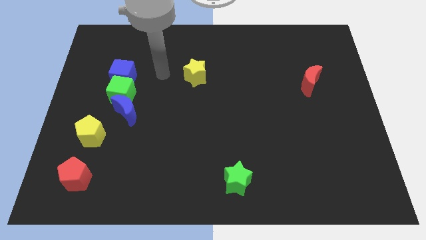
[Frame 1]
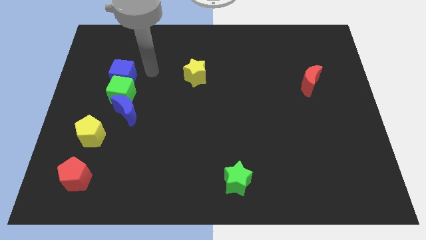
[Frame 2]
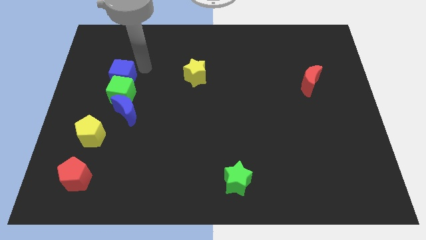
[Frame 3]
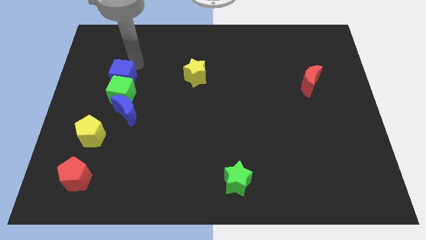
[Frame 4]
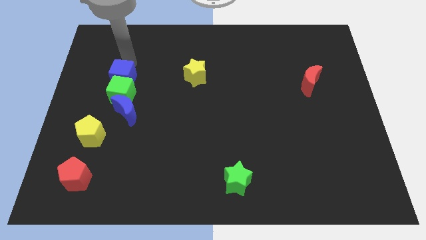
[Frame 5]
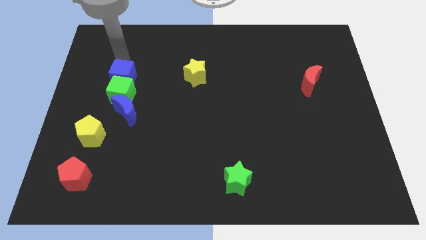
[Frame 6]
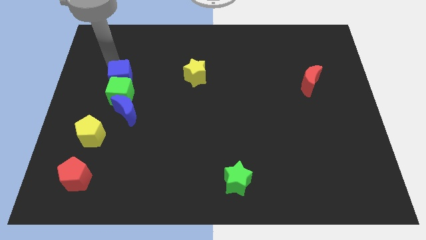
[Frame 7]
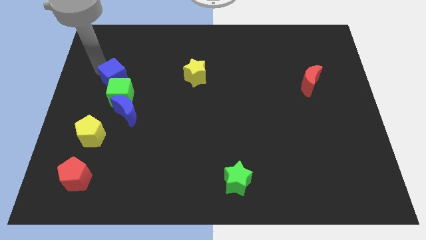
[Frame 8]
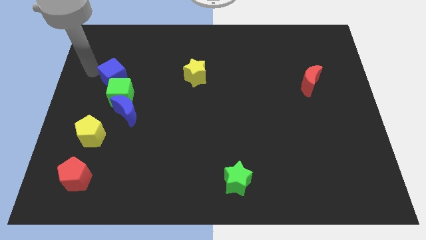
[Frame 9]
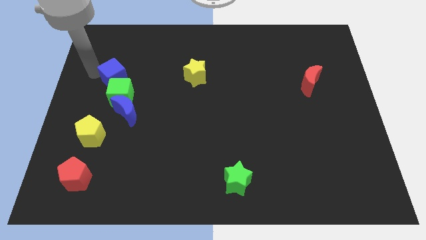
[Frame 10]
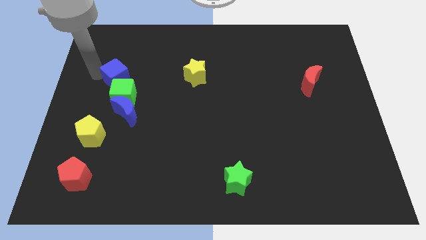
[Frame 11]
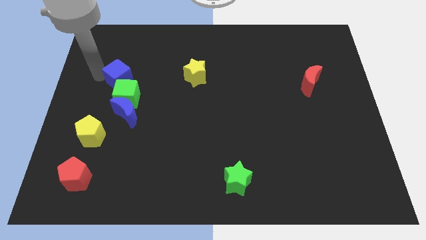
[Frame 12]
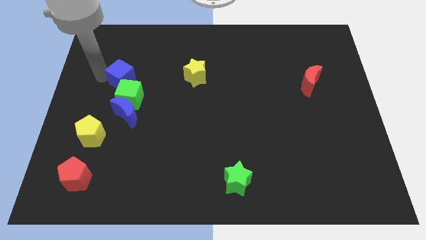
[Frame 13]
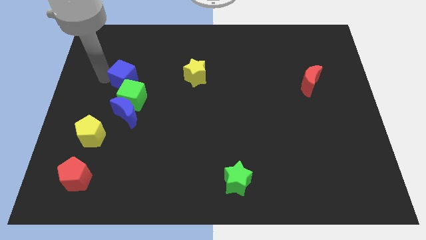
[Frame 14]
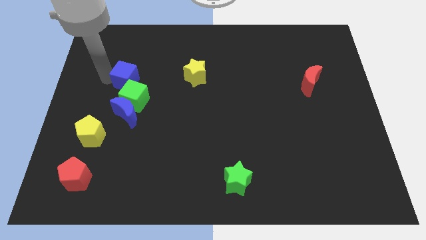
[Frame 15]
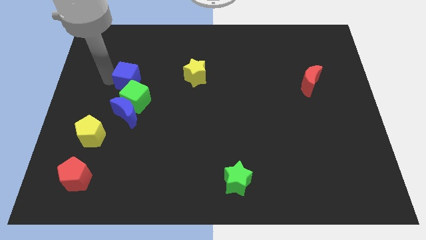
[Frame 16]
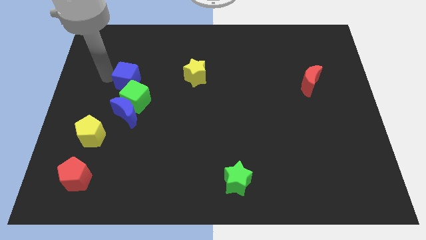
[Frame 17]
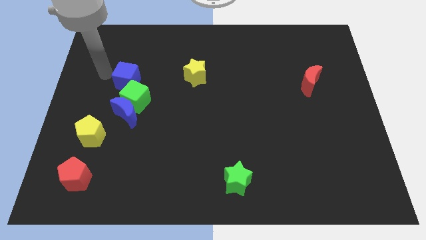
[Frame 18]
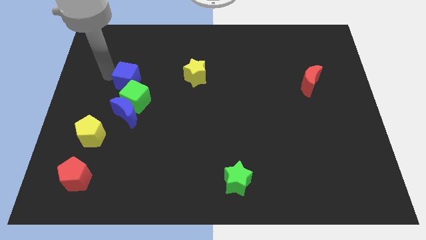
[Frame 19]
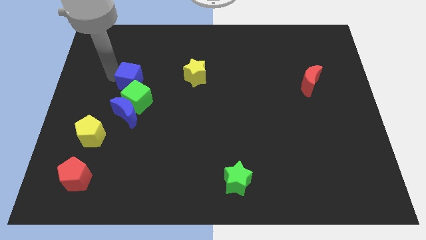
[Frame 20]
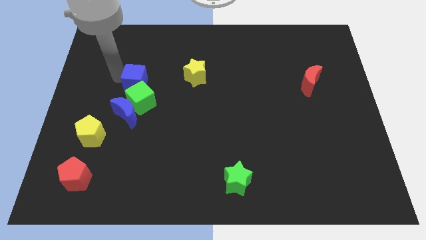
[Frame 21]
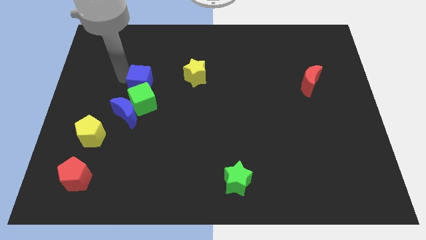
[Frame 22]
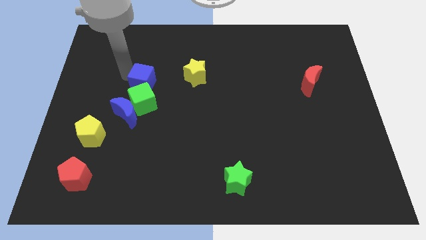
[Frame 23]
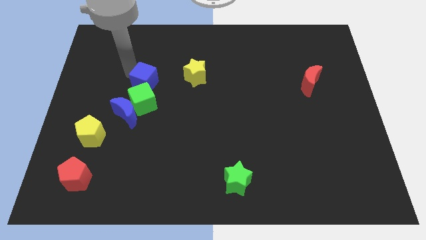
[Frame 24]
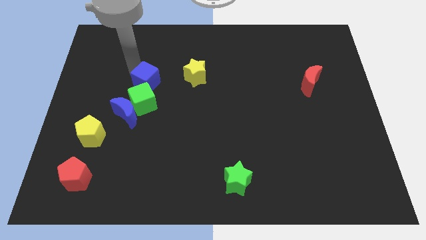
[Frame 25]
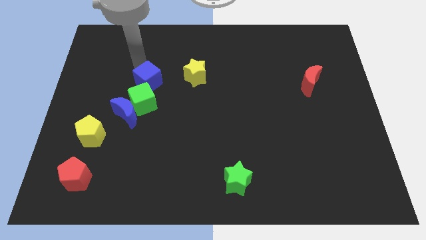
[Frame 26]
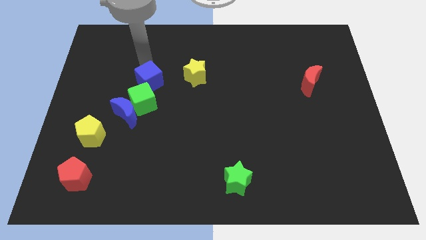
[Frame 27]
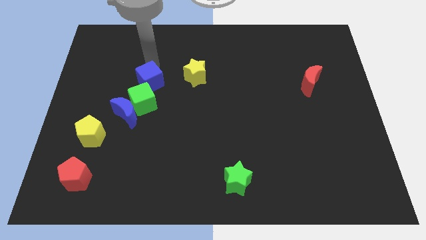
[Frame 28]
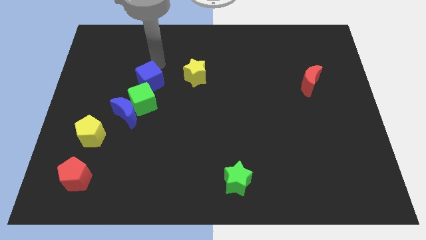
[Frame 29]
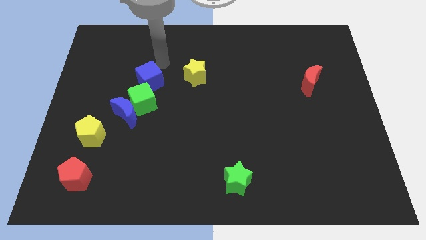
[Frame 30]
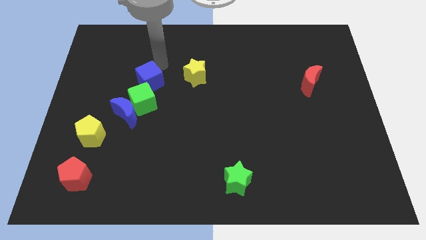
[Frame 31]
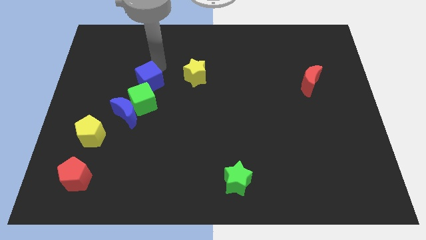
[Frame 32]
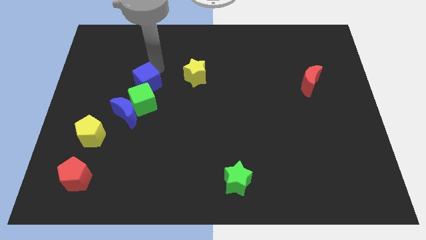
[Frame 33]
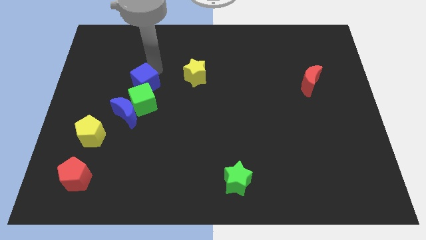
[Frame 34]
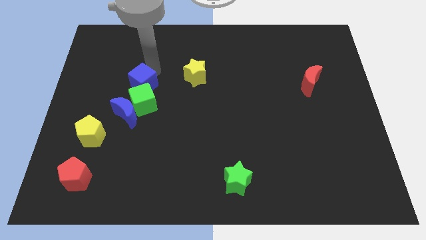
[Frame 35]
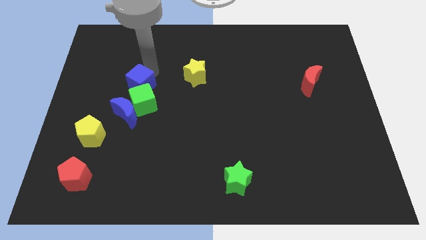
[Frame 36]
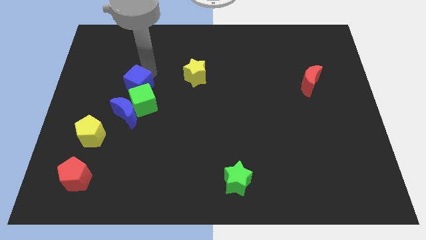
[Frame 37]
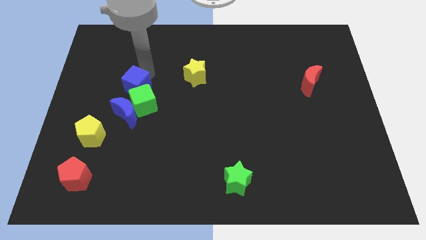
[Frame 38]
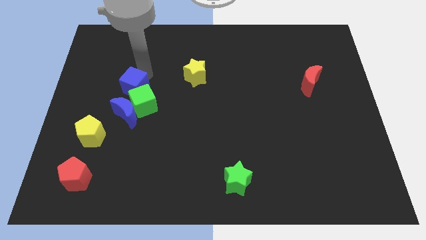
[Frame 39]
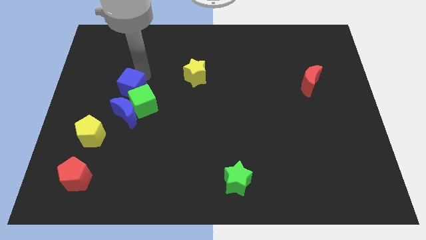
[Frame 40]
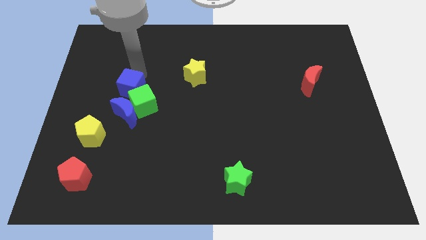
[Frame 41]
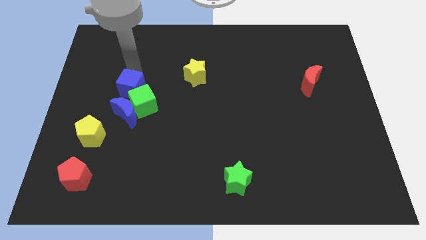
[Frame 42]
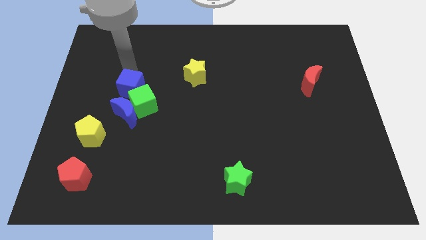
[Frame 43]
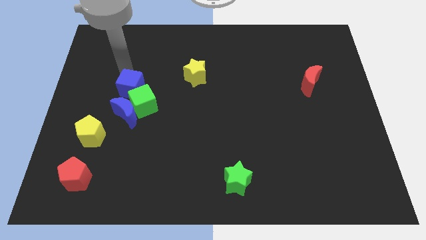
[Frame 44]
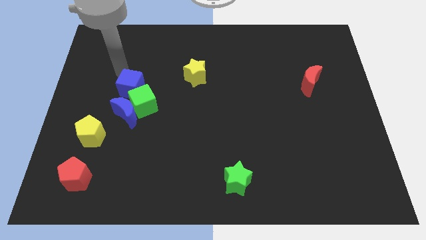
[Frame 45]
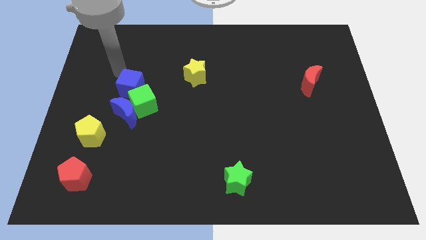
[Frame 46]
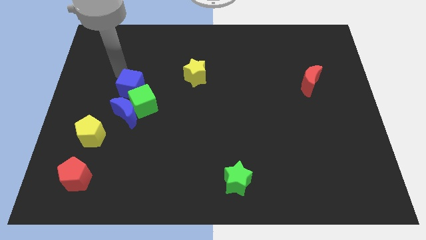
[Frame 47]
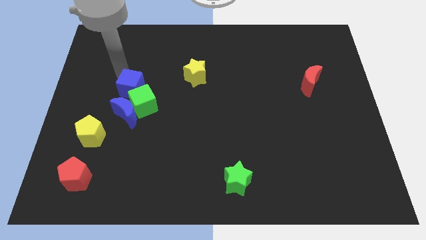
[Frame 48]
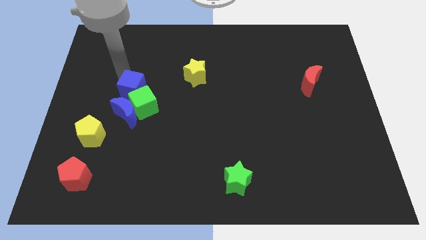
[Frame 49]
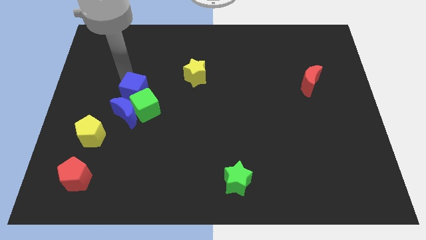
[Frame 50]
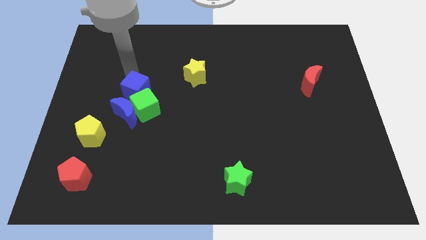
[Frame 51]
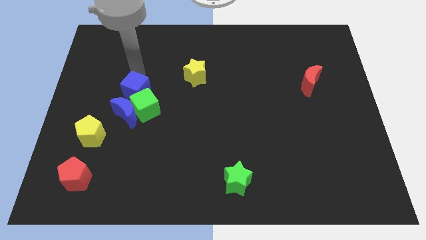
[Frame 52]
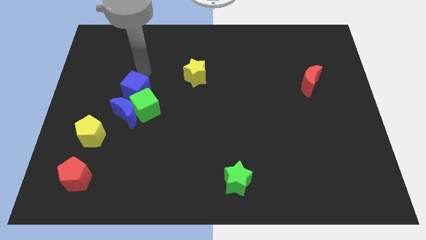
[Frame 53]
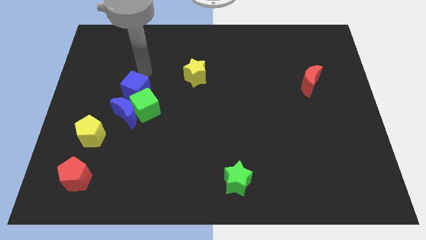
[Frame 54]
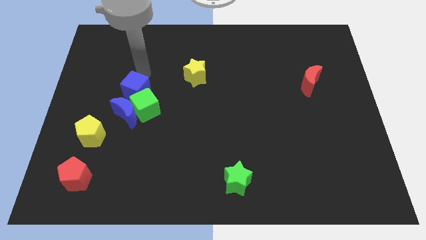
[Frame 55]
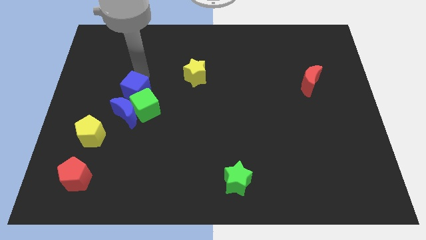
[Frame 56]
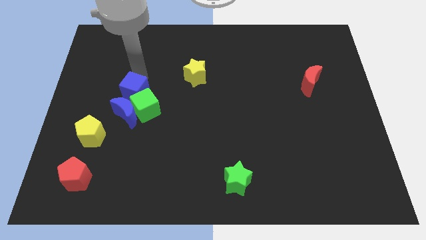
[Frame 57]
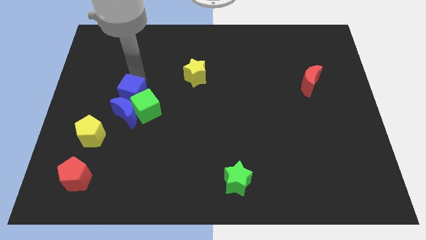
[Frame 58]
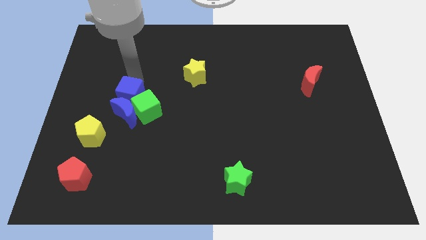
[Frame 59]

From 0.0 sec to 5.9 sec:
move the blue cube towards the blue moon
